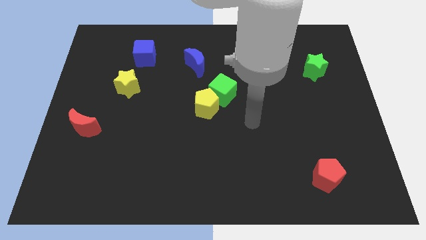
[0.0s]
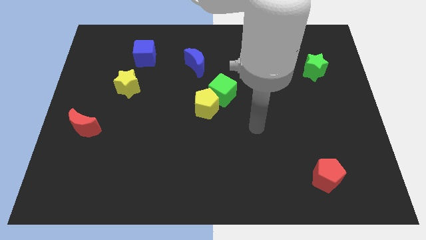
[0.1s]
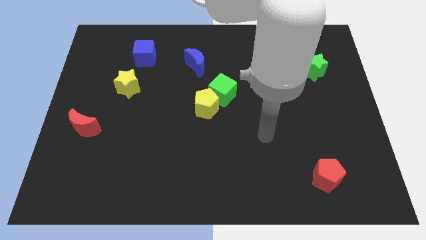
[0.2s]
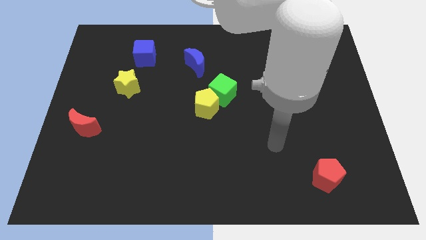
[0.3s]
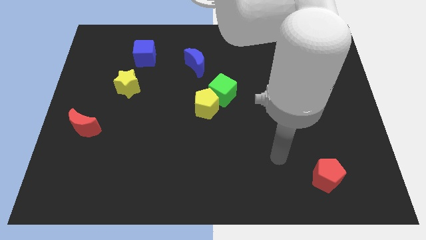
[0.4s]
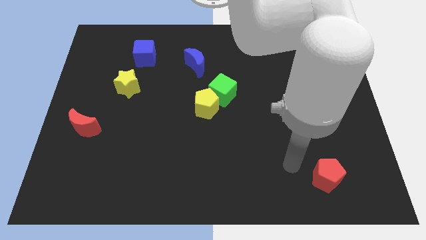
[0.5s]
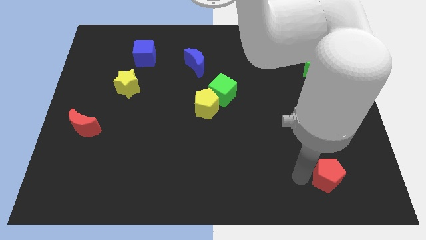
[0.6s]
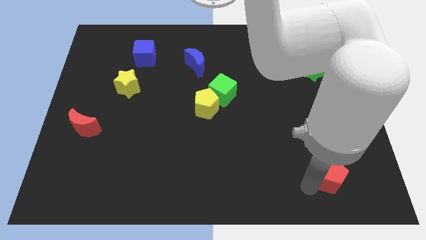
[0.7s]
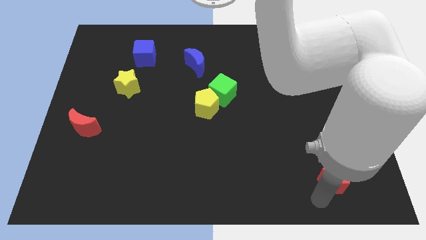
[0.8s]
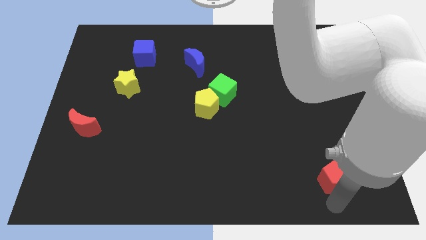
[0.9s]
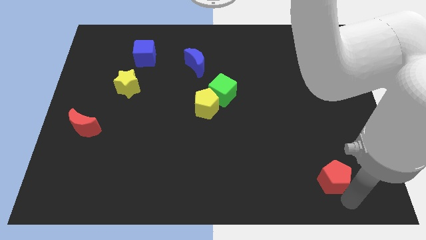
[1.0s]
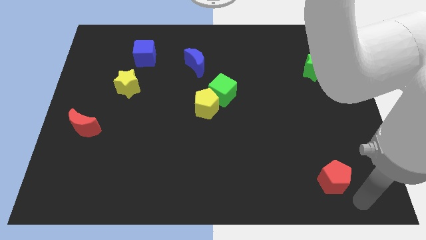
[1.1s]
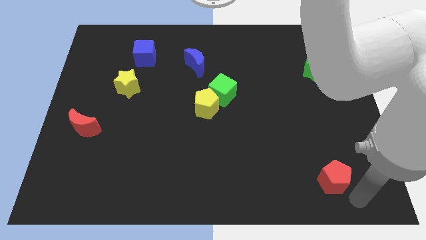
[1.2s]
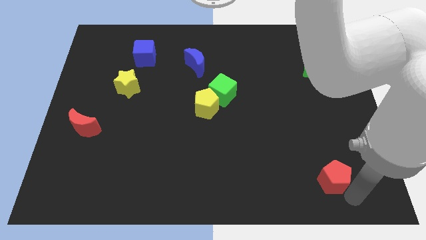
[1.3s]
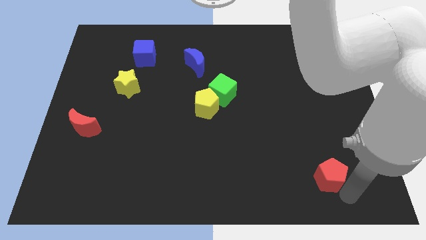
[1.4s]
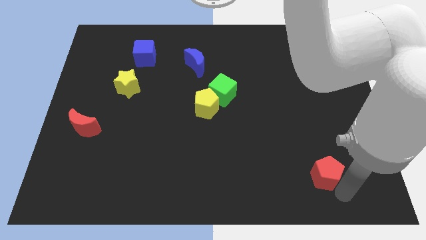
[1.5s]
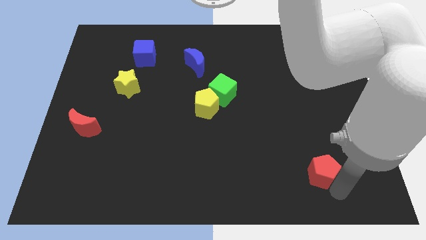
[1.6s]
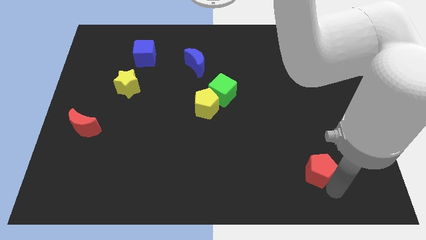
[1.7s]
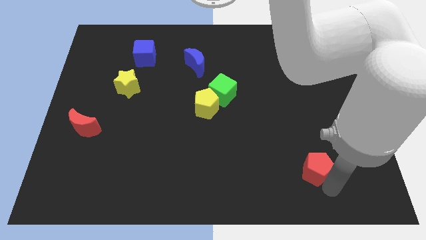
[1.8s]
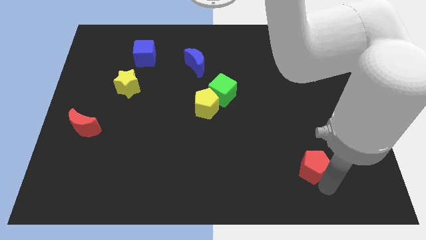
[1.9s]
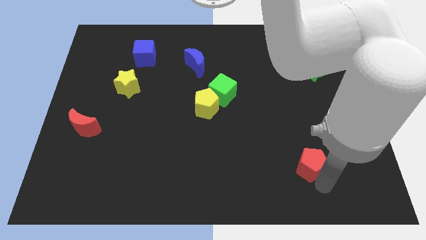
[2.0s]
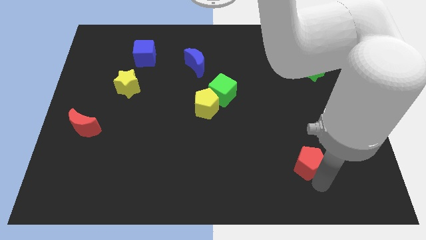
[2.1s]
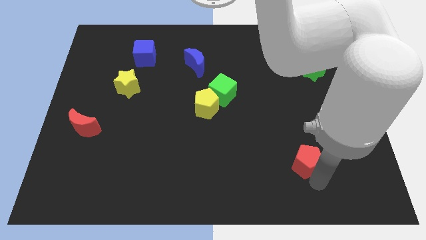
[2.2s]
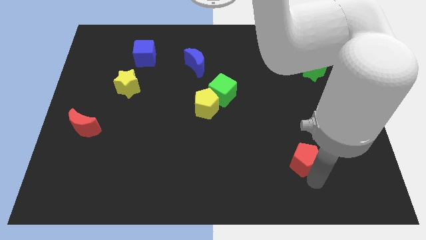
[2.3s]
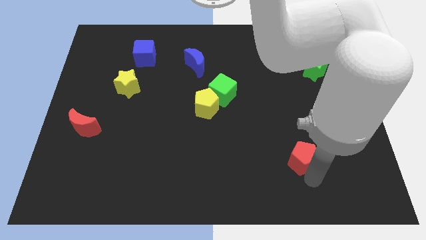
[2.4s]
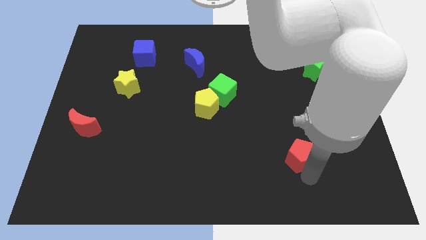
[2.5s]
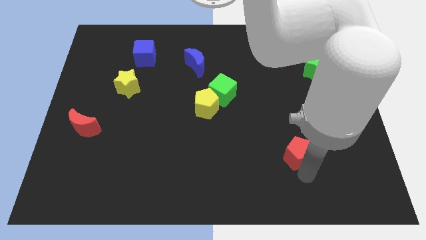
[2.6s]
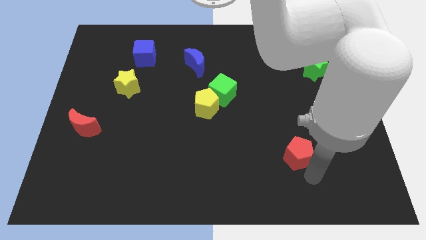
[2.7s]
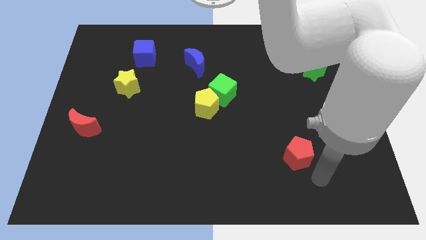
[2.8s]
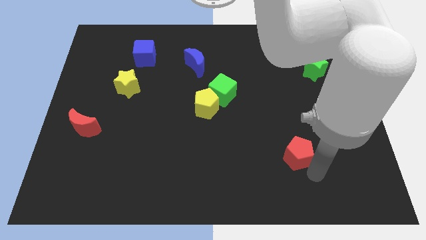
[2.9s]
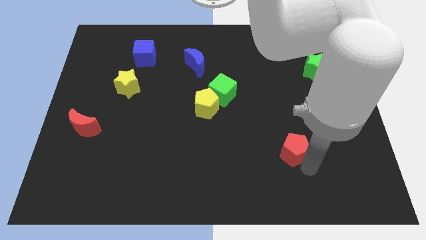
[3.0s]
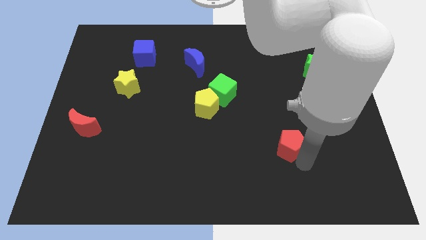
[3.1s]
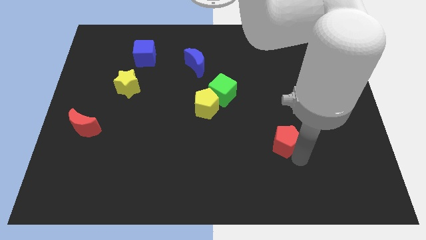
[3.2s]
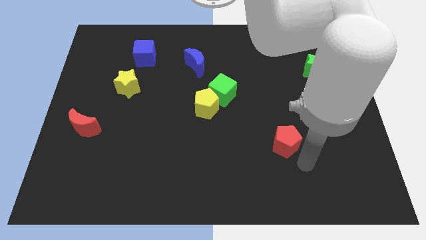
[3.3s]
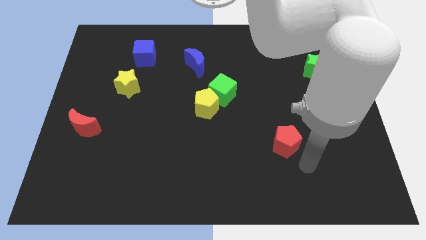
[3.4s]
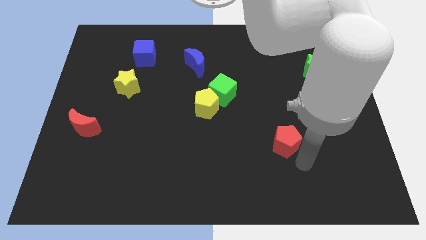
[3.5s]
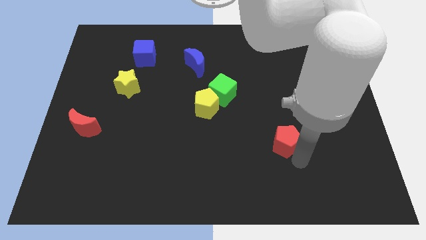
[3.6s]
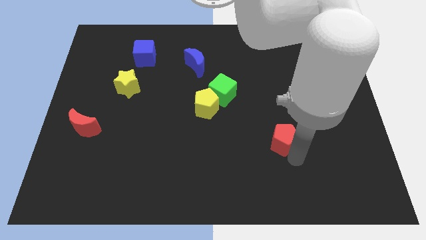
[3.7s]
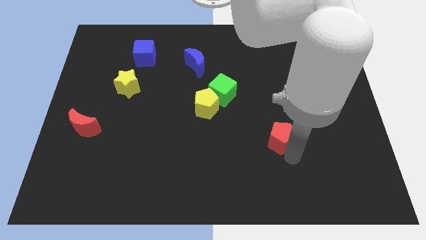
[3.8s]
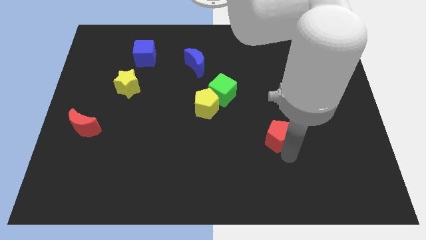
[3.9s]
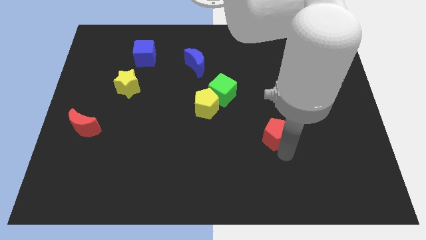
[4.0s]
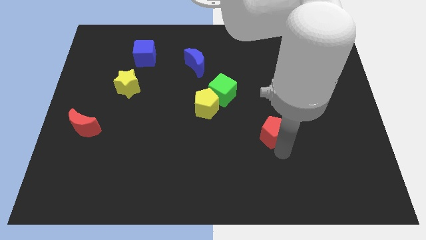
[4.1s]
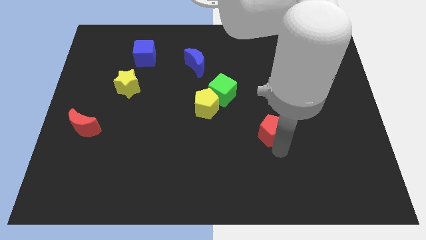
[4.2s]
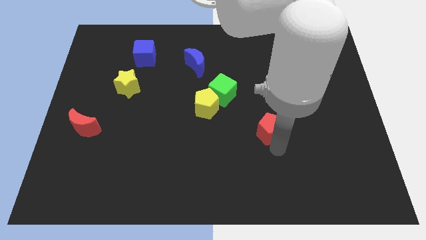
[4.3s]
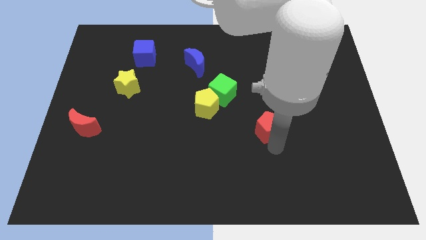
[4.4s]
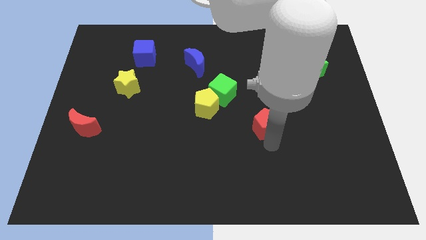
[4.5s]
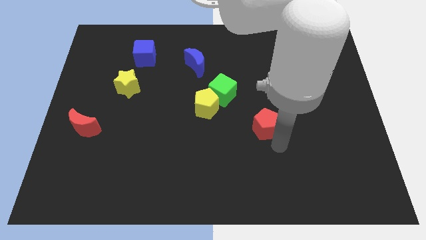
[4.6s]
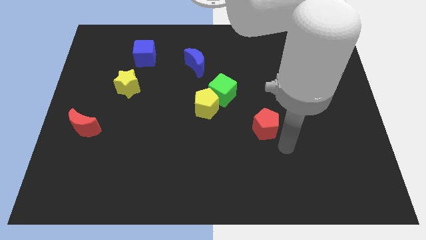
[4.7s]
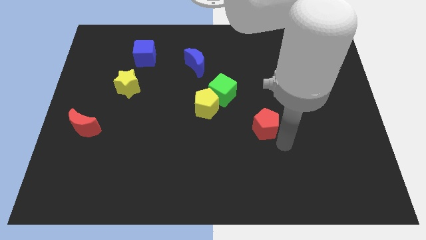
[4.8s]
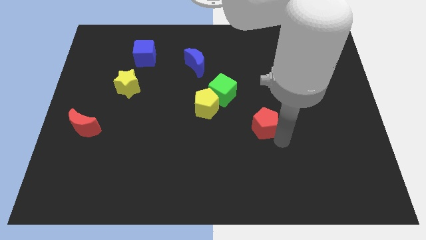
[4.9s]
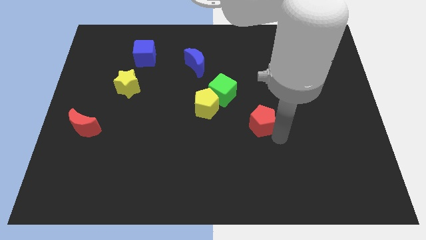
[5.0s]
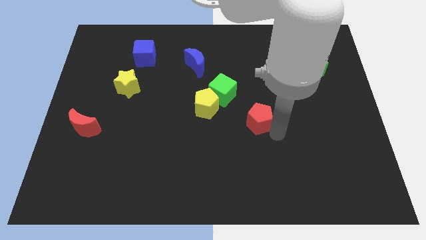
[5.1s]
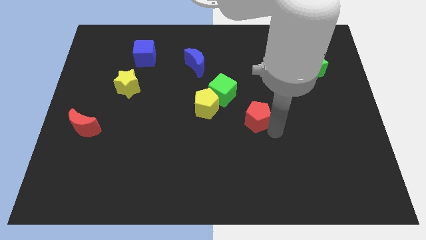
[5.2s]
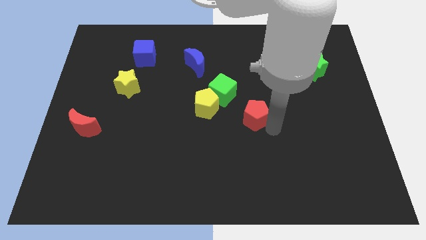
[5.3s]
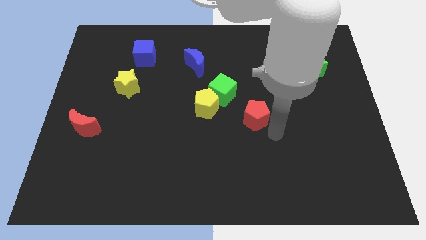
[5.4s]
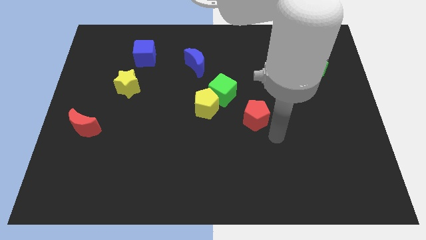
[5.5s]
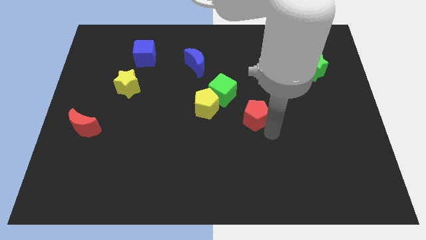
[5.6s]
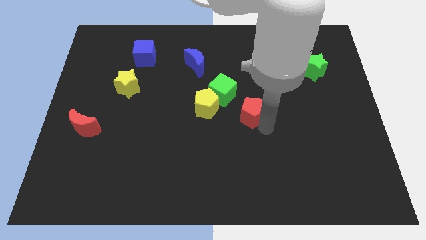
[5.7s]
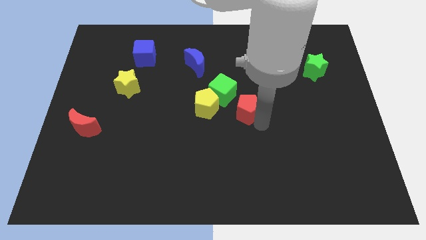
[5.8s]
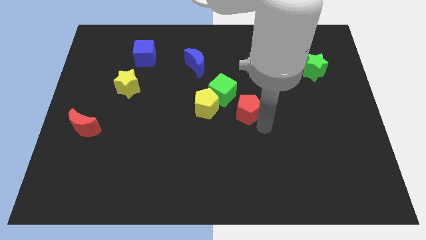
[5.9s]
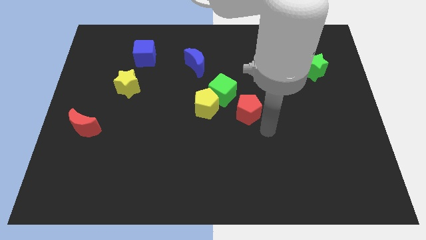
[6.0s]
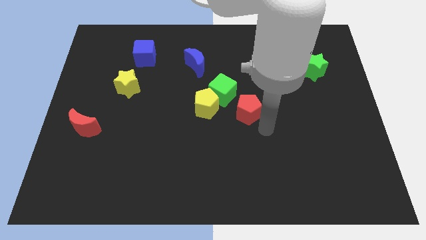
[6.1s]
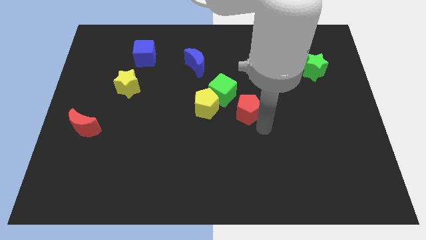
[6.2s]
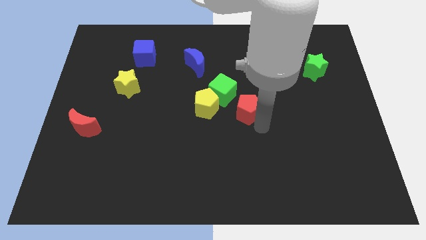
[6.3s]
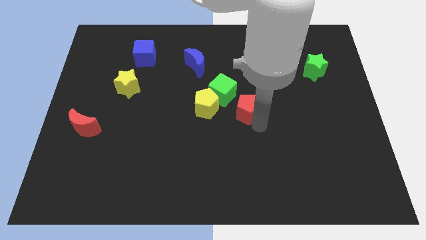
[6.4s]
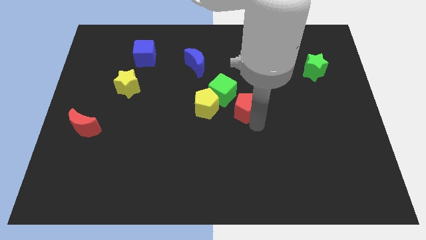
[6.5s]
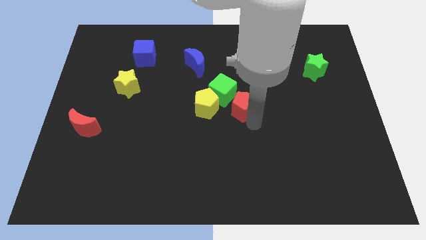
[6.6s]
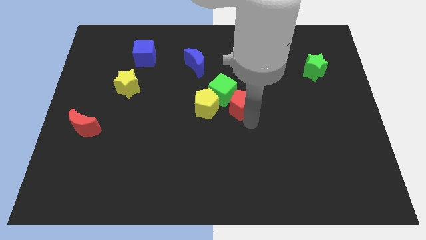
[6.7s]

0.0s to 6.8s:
put the red pentagon towards the green cube

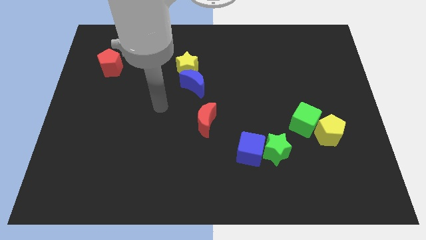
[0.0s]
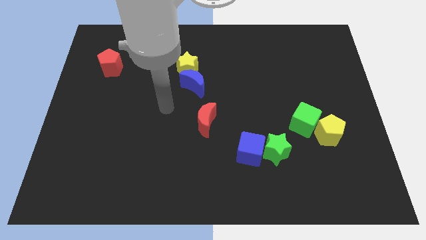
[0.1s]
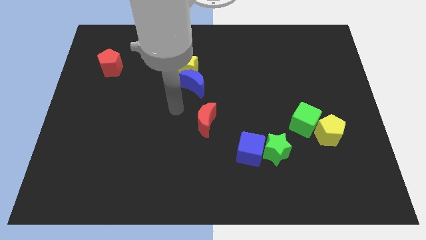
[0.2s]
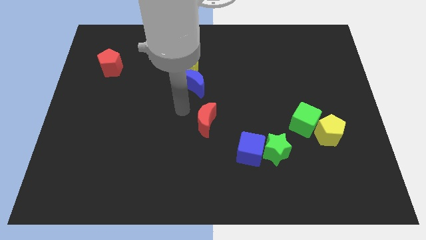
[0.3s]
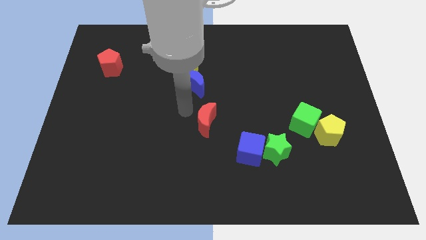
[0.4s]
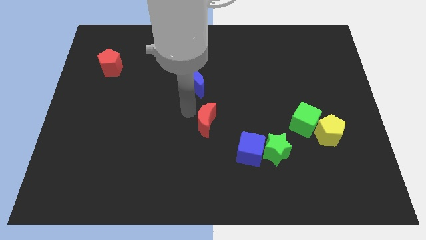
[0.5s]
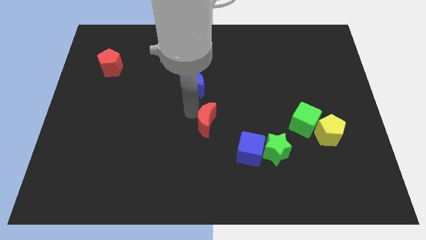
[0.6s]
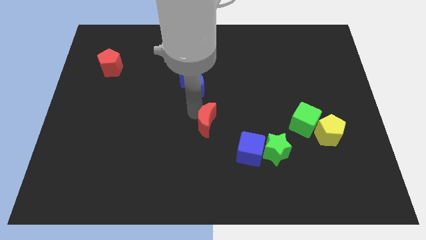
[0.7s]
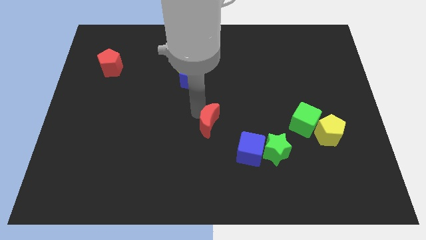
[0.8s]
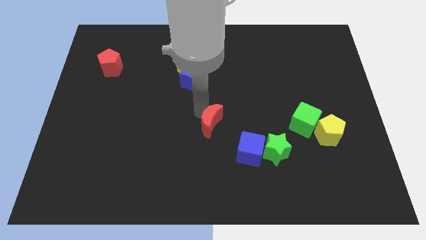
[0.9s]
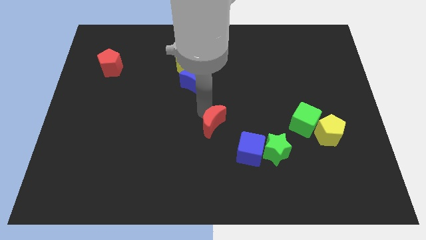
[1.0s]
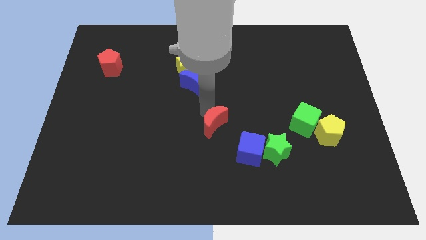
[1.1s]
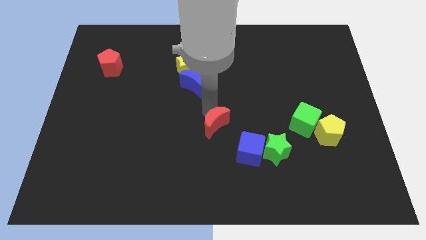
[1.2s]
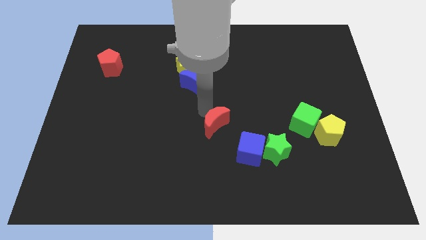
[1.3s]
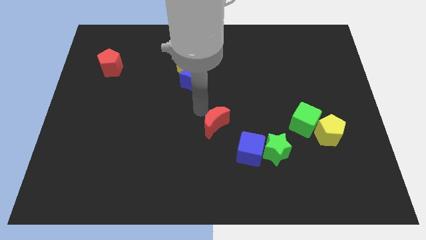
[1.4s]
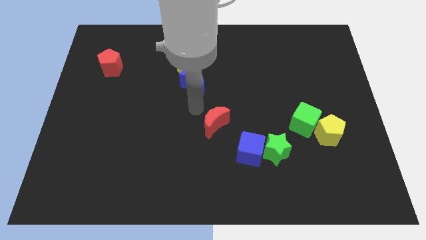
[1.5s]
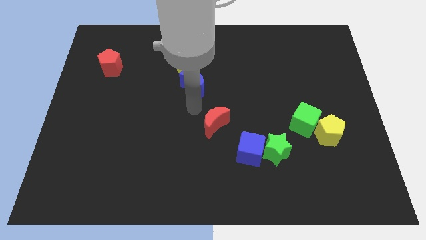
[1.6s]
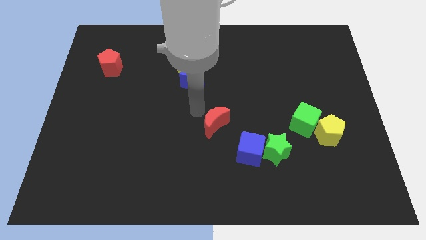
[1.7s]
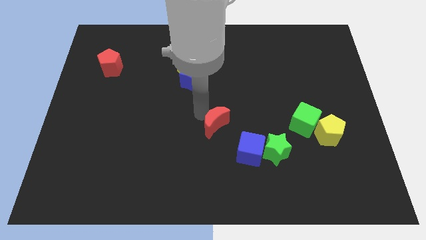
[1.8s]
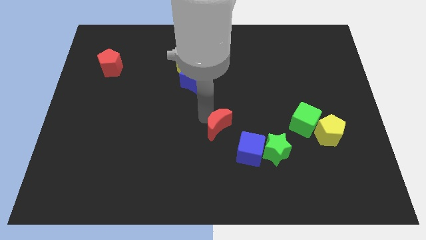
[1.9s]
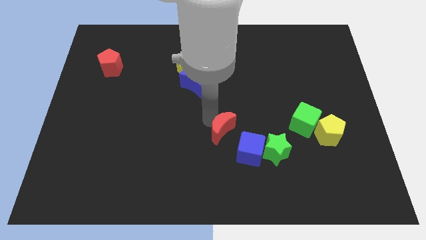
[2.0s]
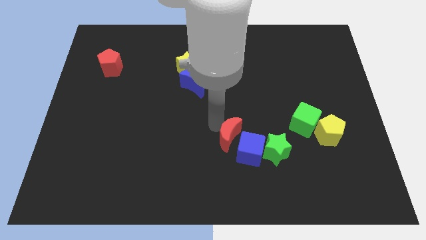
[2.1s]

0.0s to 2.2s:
push the red moon towards the blue cube
